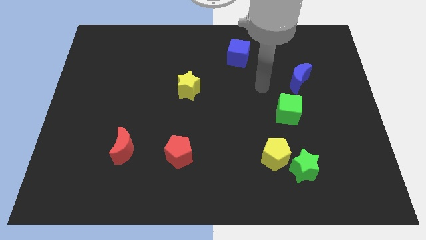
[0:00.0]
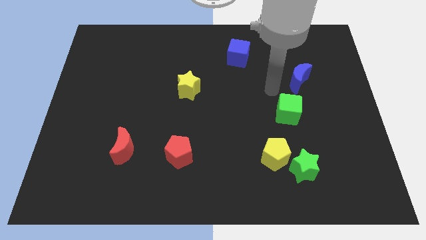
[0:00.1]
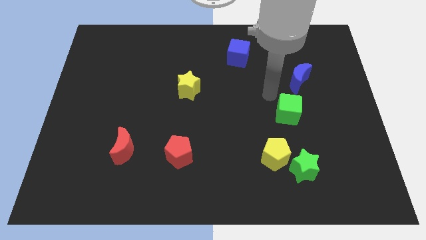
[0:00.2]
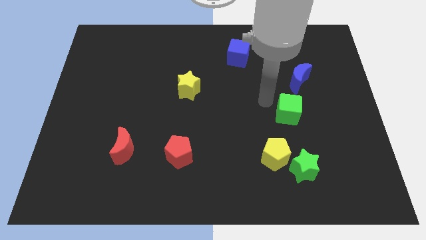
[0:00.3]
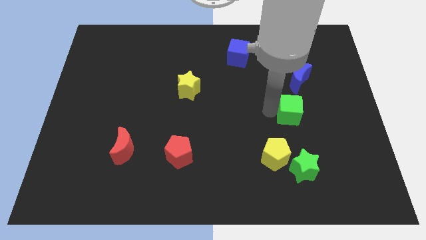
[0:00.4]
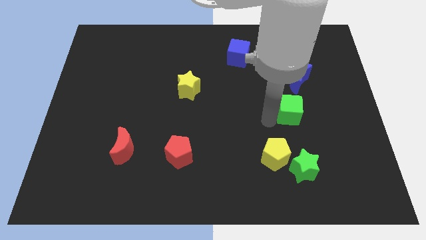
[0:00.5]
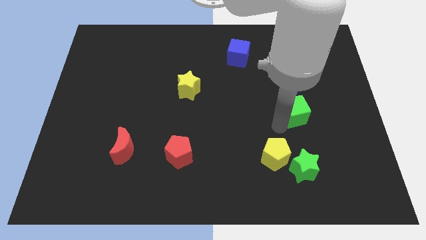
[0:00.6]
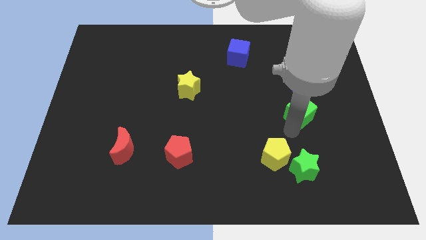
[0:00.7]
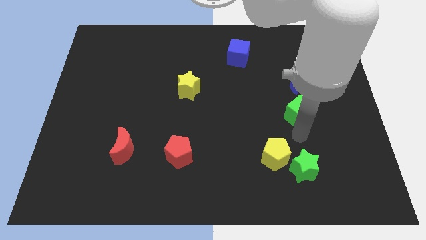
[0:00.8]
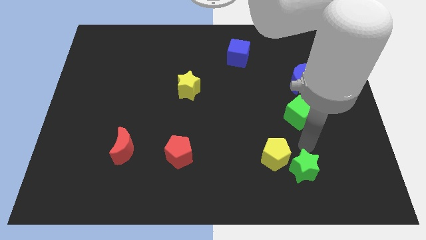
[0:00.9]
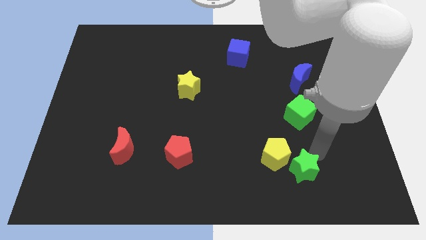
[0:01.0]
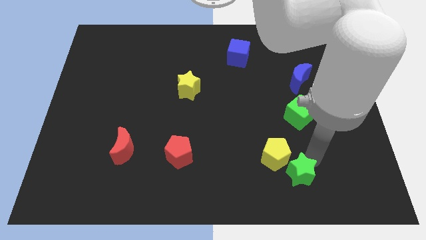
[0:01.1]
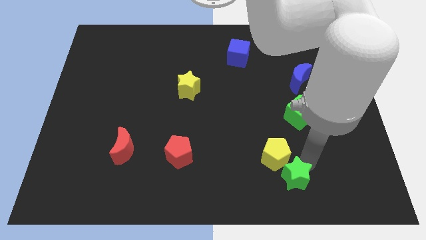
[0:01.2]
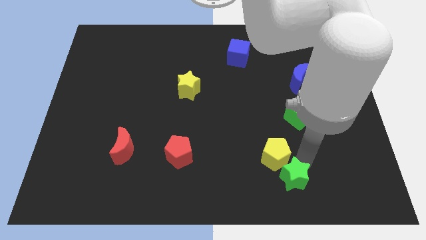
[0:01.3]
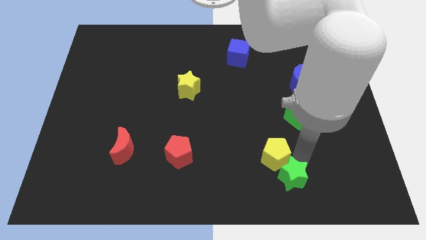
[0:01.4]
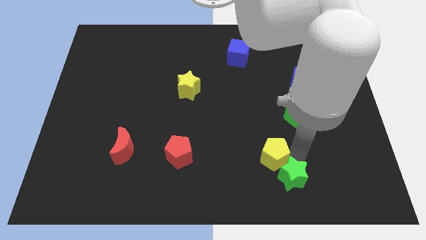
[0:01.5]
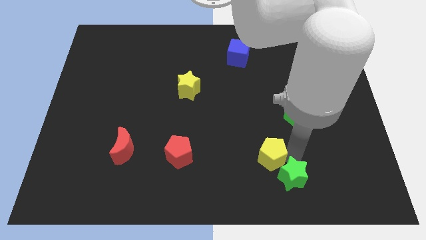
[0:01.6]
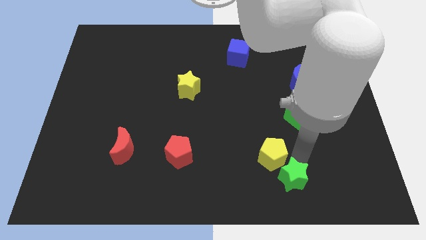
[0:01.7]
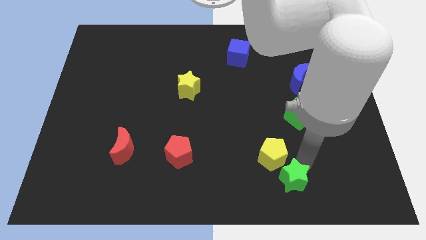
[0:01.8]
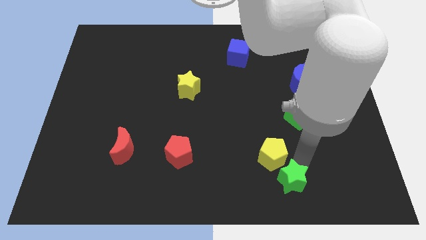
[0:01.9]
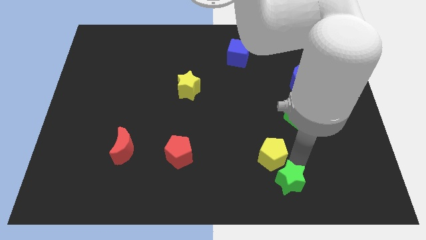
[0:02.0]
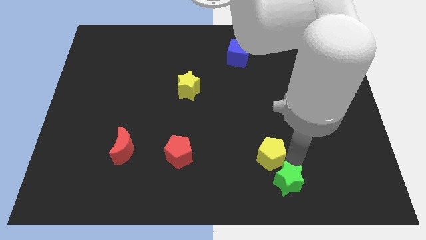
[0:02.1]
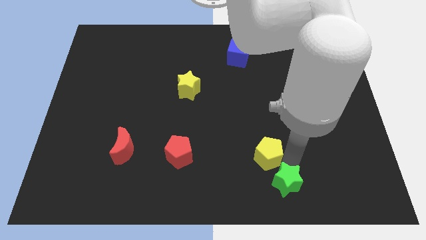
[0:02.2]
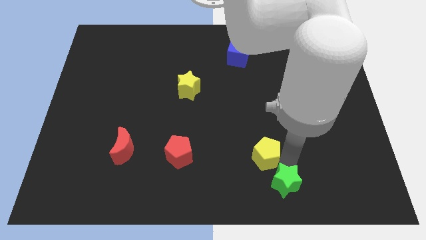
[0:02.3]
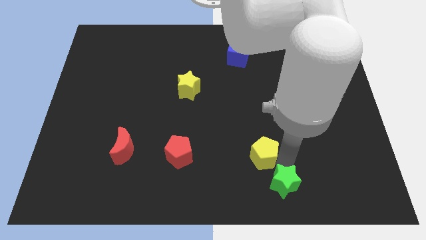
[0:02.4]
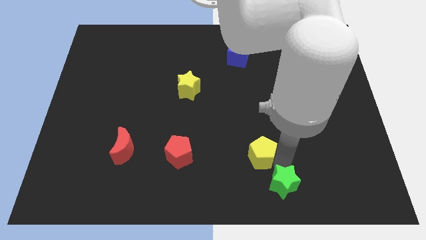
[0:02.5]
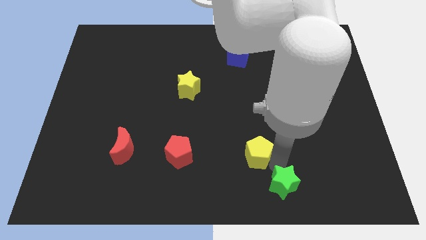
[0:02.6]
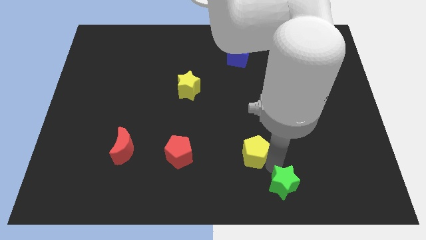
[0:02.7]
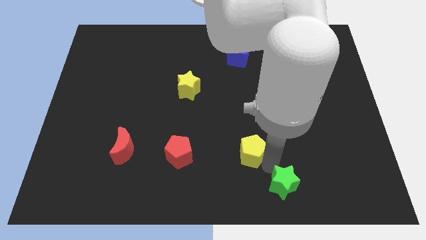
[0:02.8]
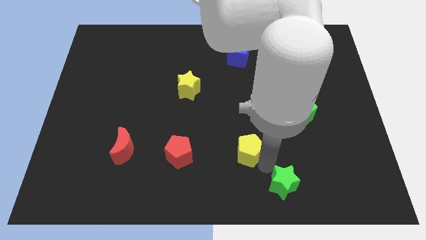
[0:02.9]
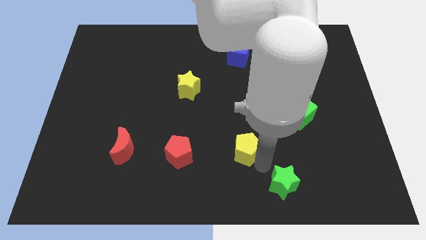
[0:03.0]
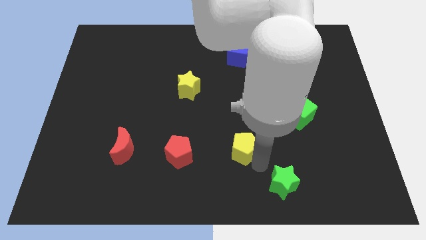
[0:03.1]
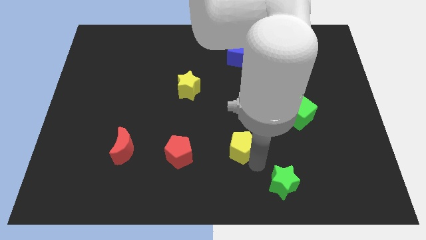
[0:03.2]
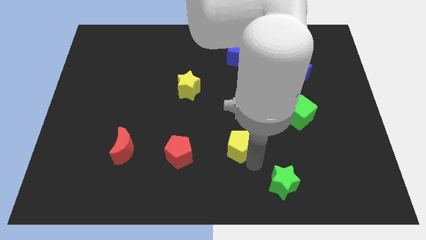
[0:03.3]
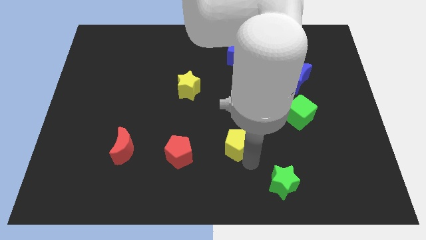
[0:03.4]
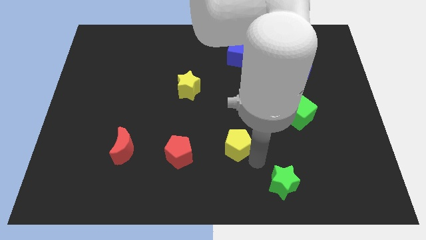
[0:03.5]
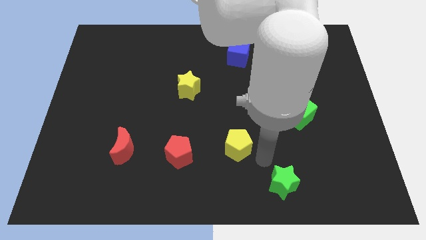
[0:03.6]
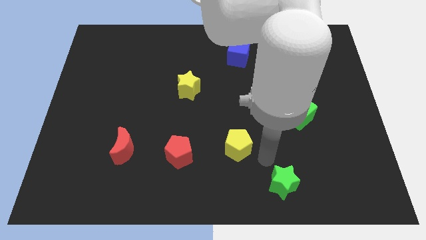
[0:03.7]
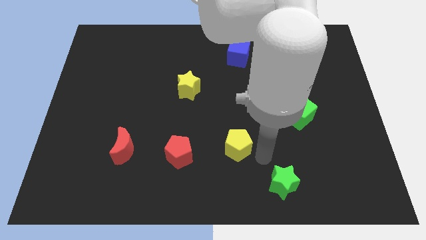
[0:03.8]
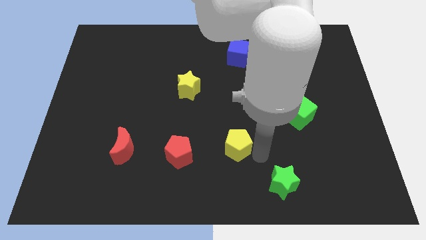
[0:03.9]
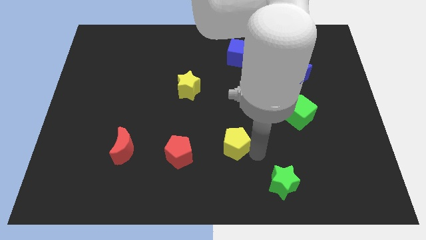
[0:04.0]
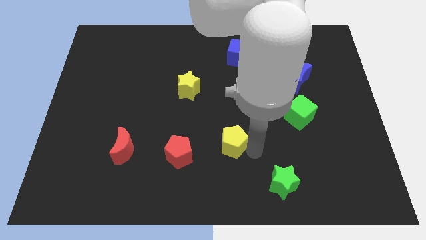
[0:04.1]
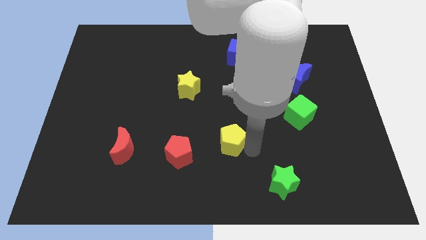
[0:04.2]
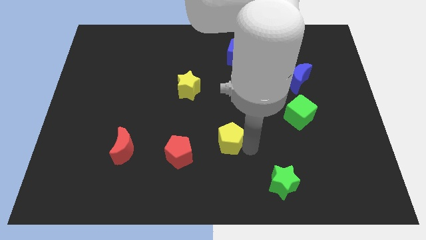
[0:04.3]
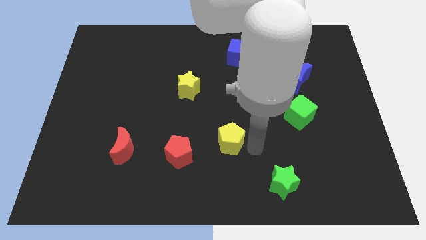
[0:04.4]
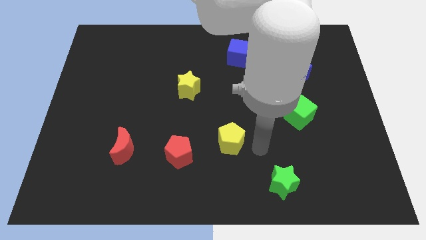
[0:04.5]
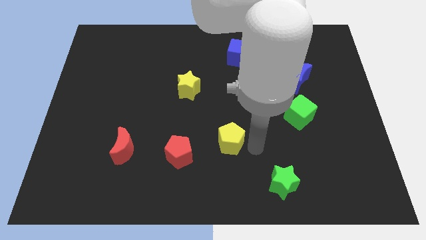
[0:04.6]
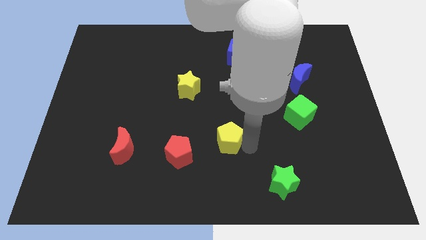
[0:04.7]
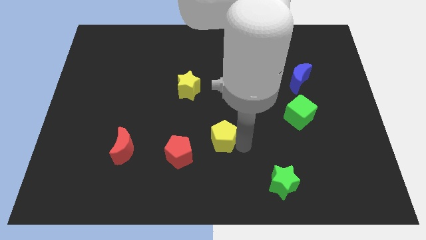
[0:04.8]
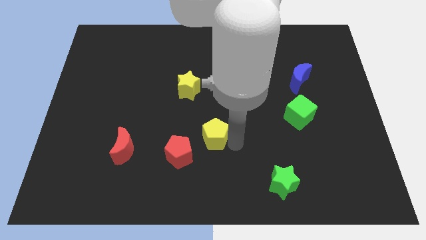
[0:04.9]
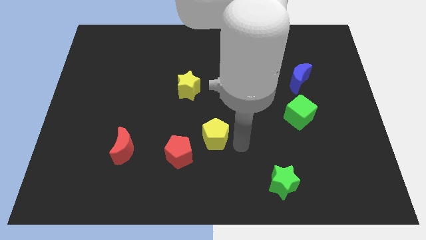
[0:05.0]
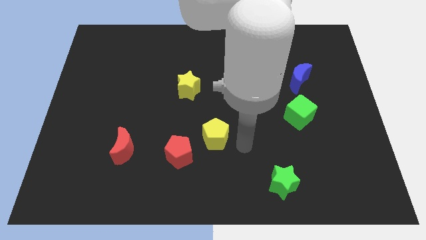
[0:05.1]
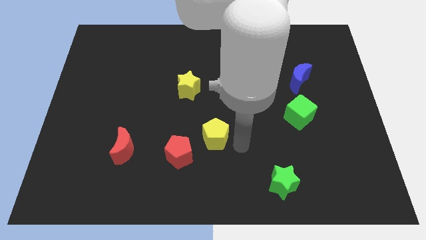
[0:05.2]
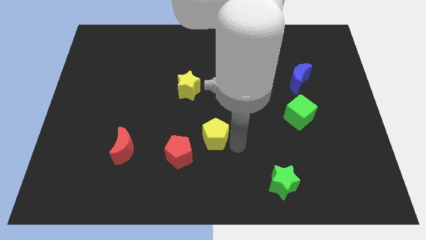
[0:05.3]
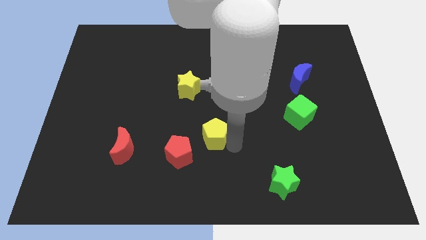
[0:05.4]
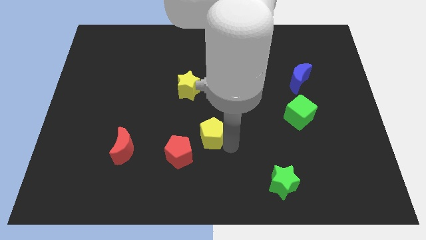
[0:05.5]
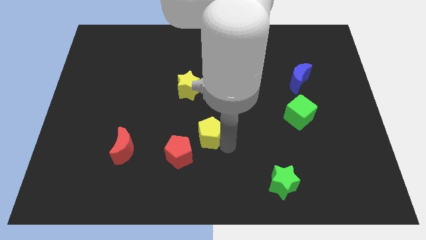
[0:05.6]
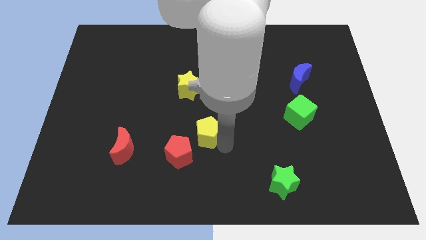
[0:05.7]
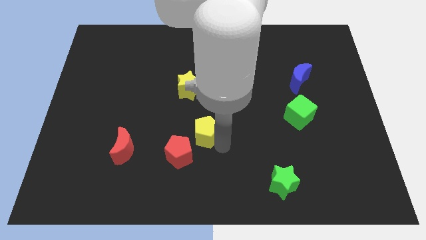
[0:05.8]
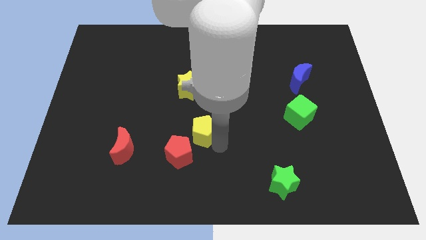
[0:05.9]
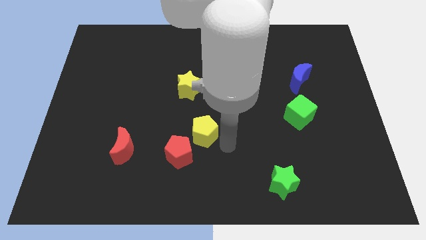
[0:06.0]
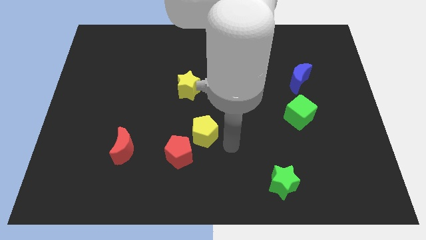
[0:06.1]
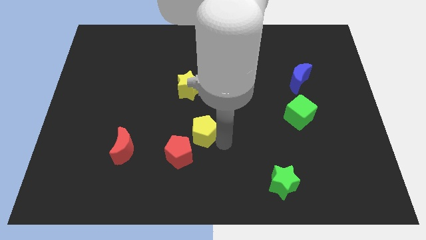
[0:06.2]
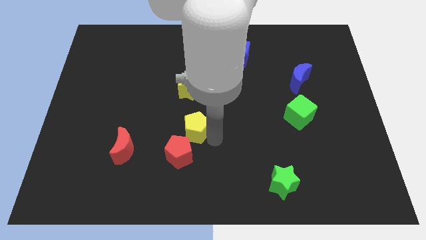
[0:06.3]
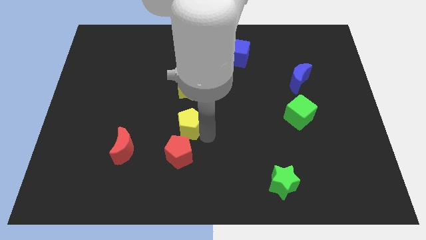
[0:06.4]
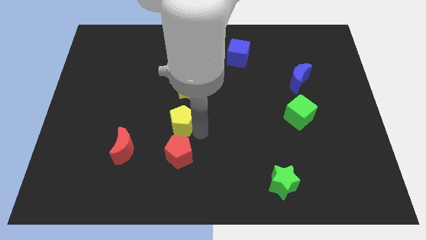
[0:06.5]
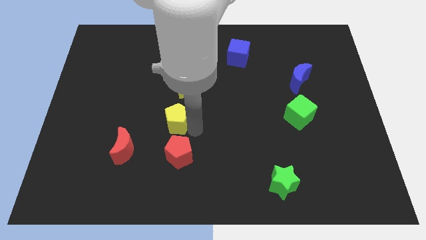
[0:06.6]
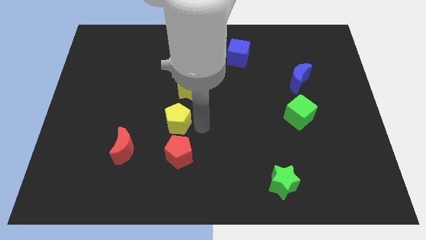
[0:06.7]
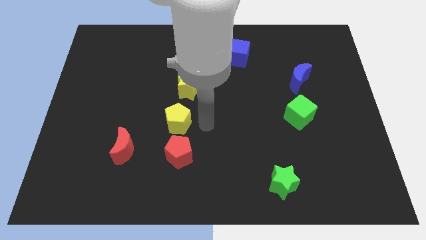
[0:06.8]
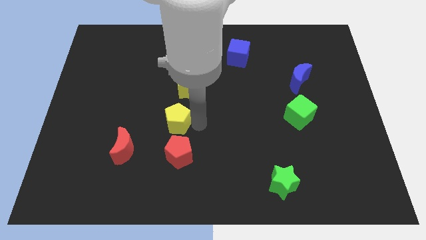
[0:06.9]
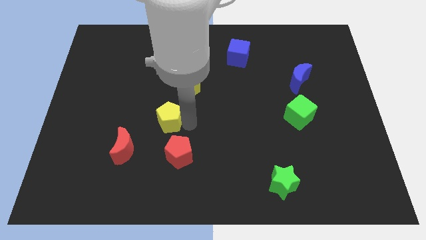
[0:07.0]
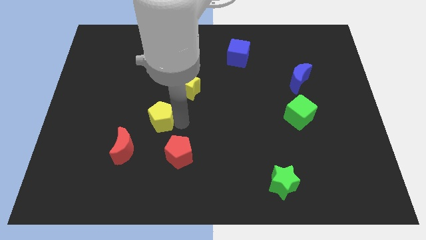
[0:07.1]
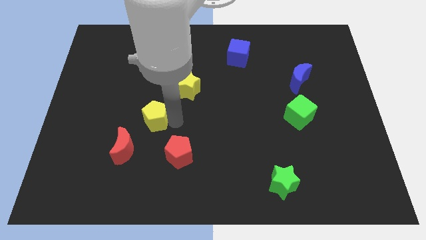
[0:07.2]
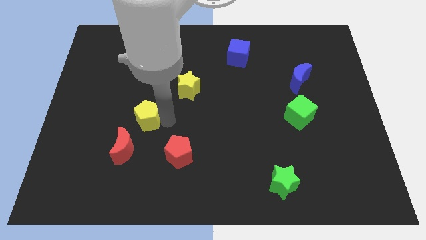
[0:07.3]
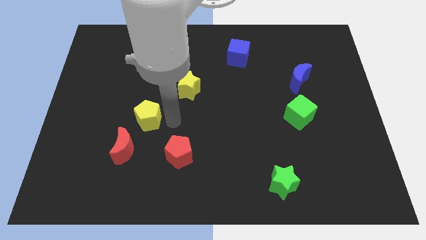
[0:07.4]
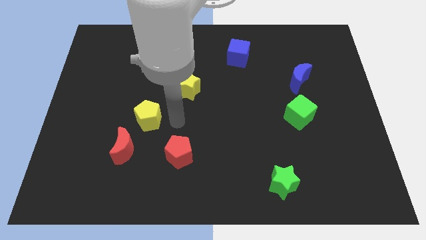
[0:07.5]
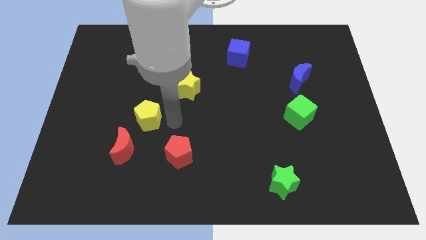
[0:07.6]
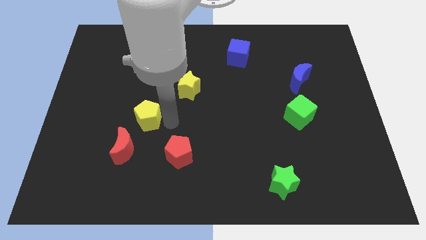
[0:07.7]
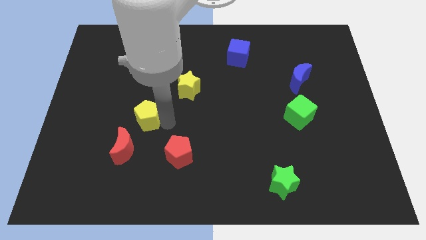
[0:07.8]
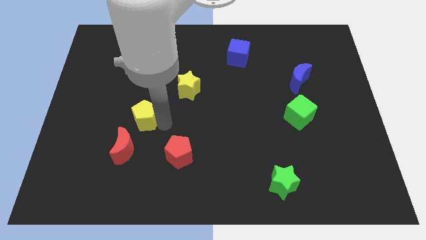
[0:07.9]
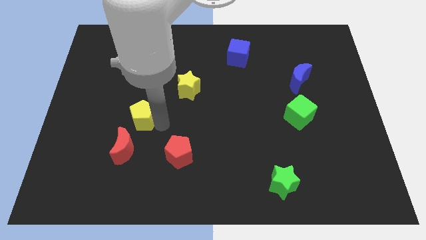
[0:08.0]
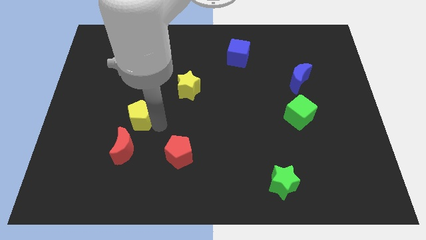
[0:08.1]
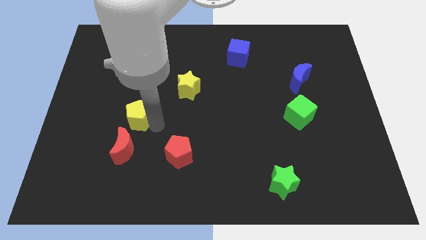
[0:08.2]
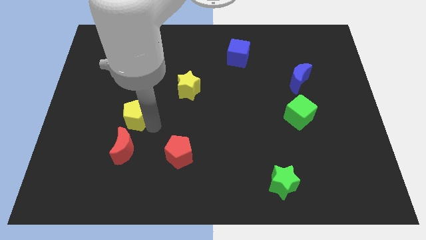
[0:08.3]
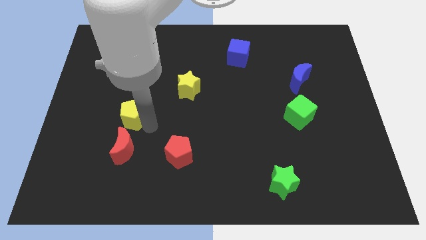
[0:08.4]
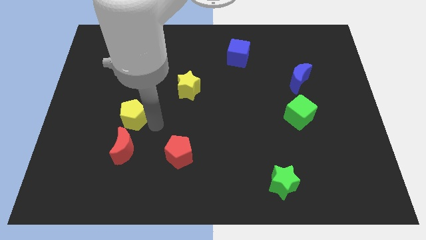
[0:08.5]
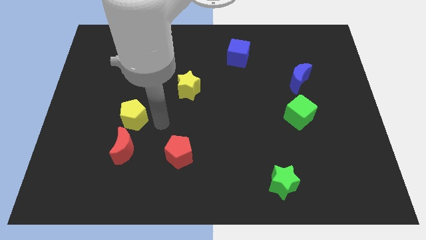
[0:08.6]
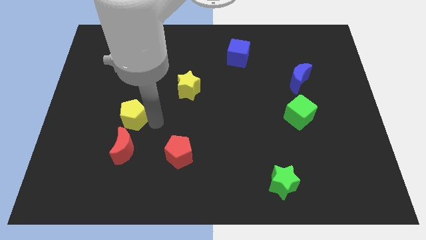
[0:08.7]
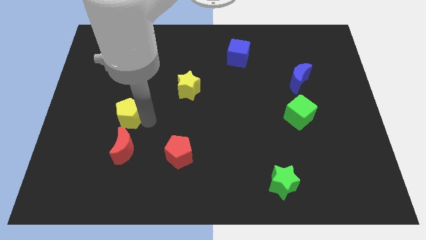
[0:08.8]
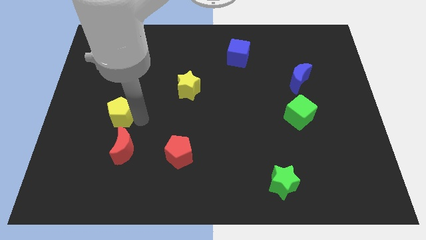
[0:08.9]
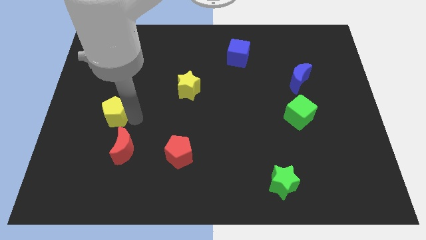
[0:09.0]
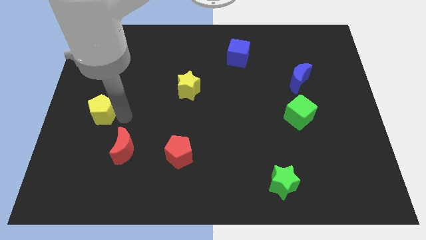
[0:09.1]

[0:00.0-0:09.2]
push the yellow pentagon to the left side of the board
